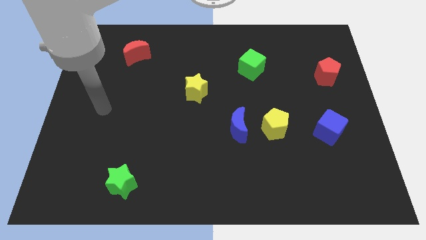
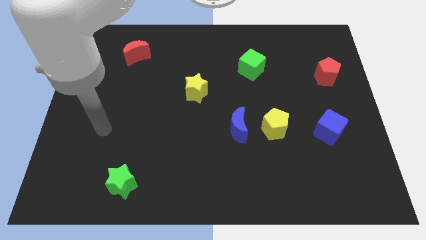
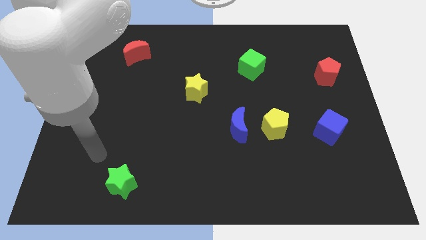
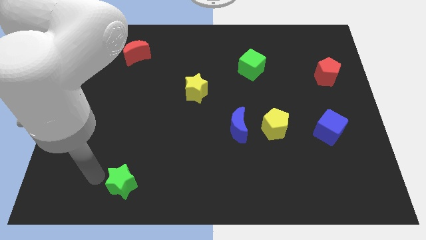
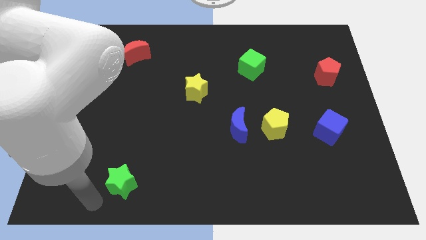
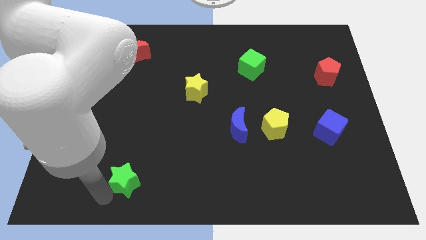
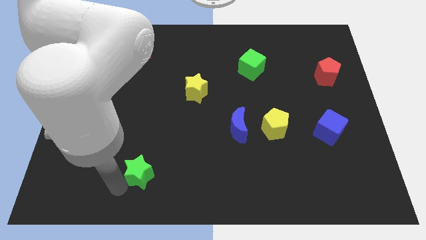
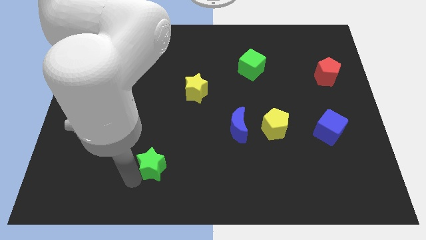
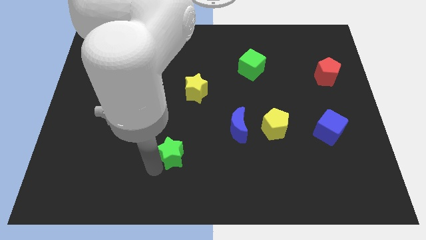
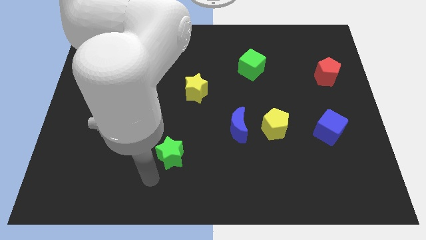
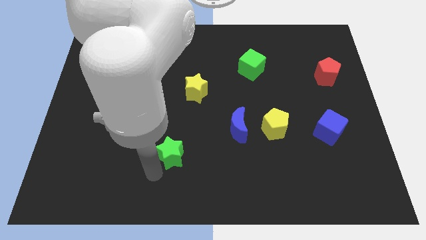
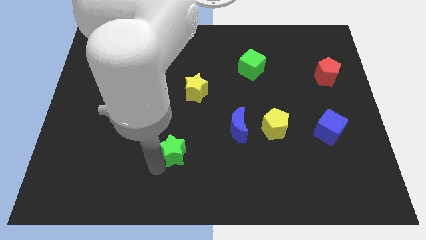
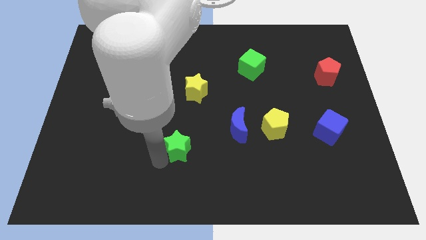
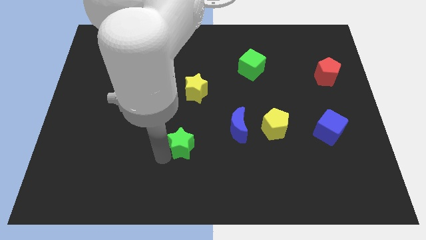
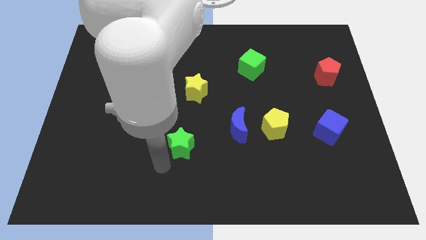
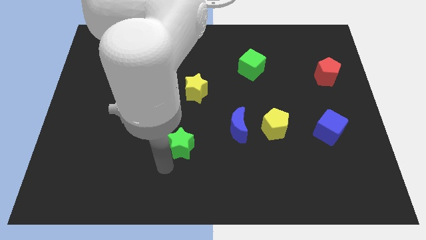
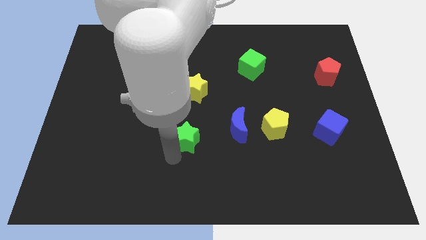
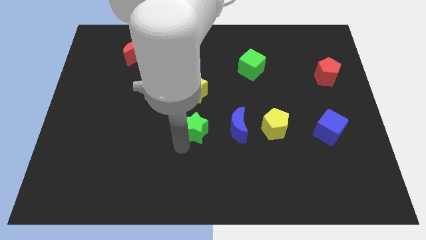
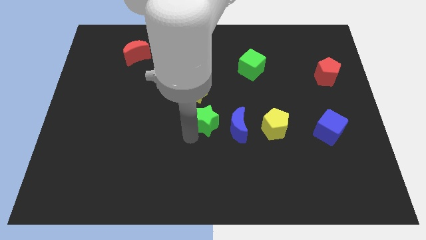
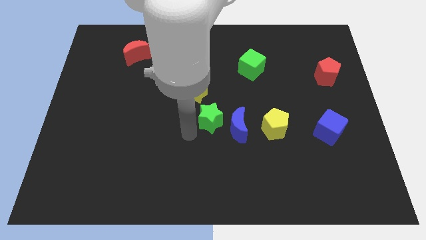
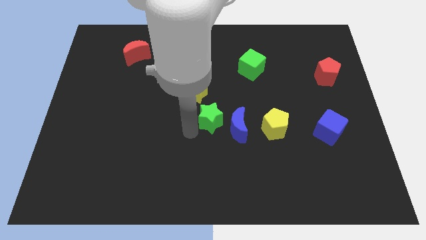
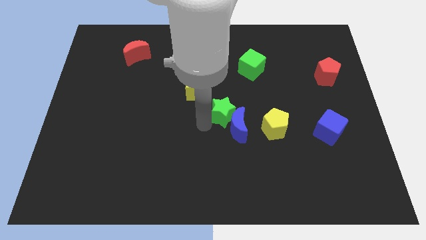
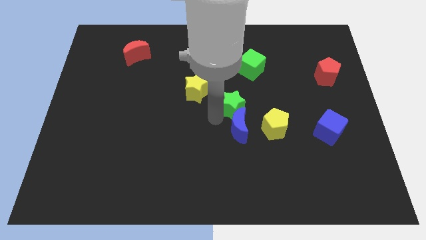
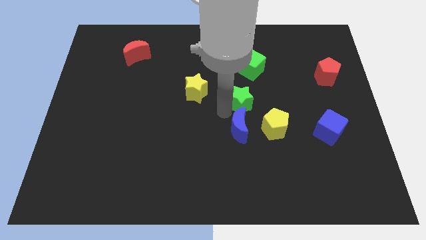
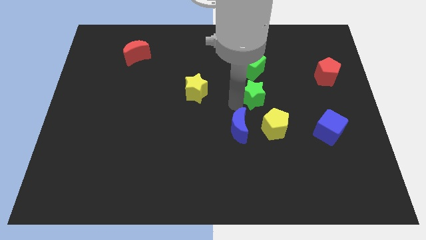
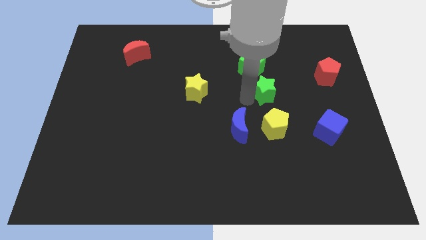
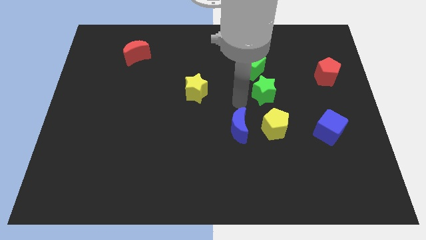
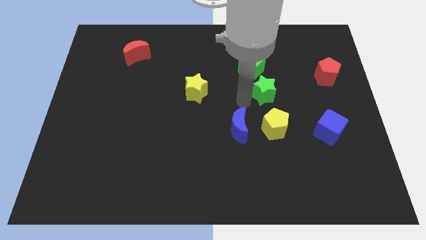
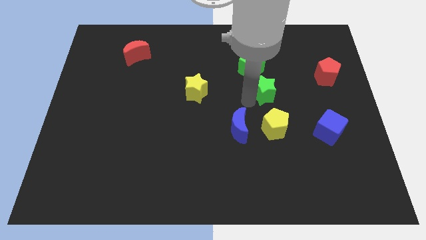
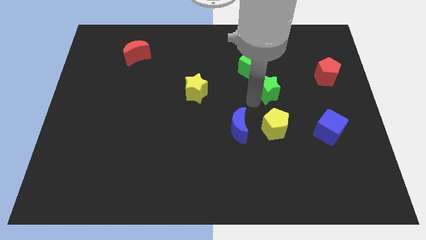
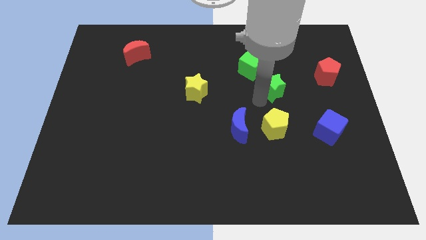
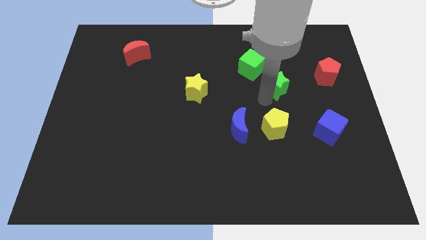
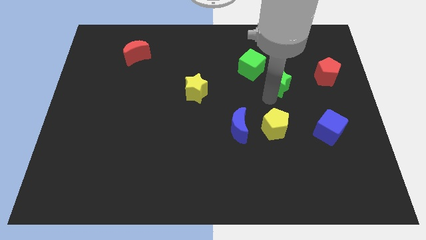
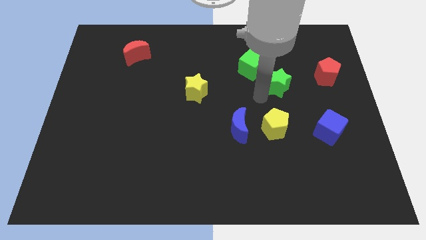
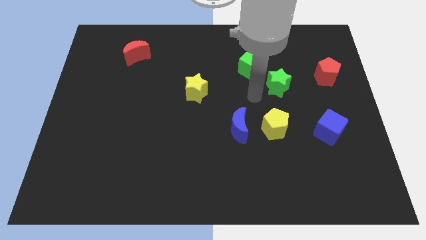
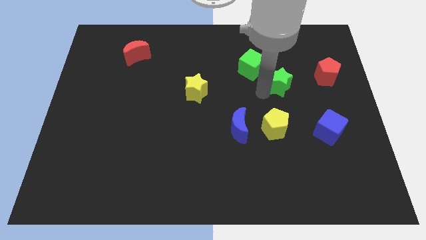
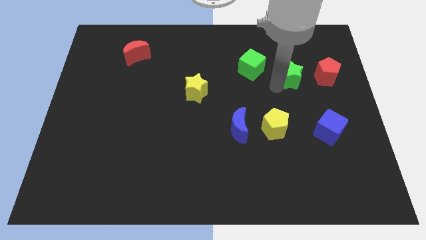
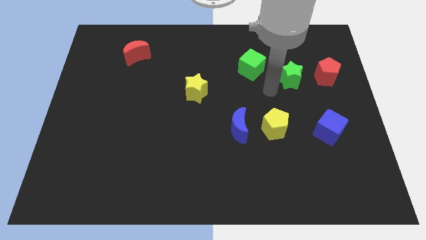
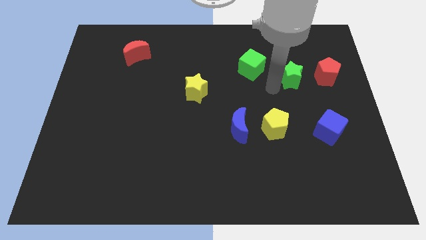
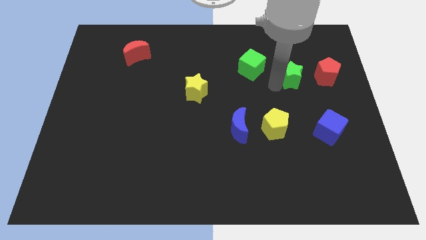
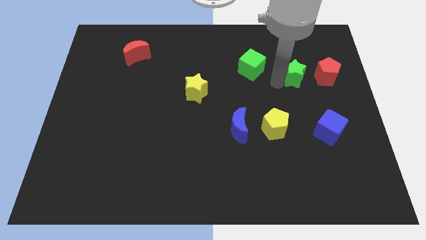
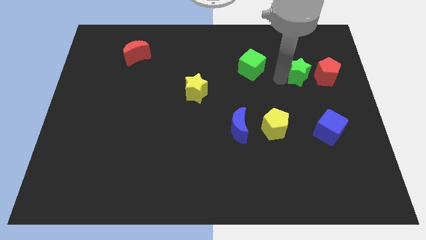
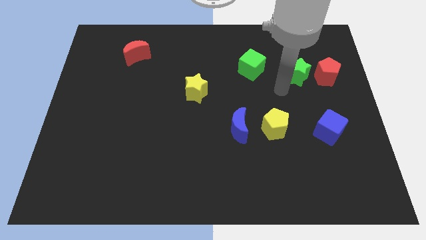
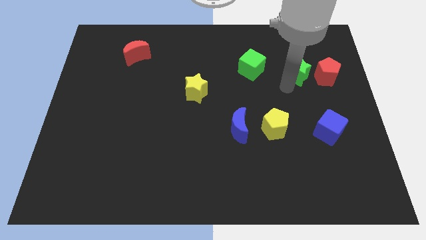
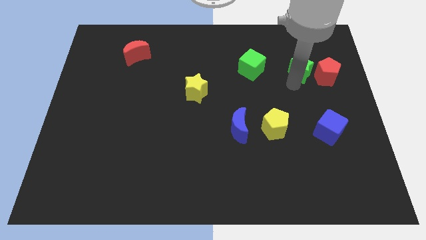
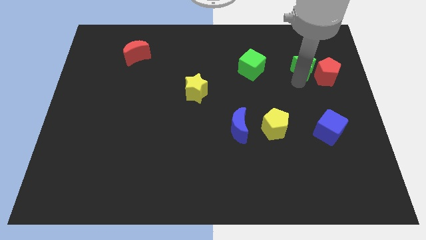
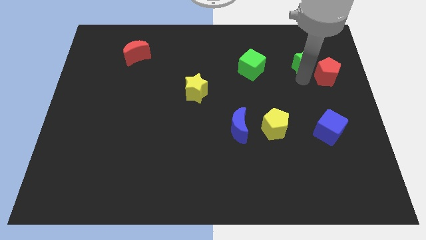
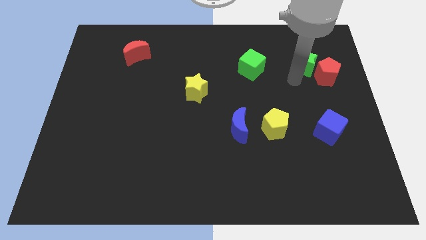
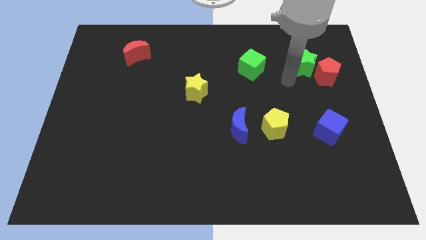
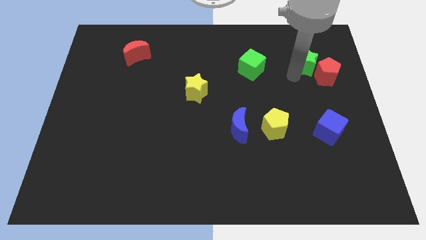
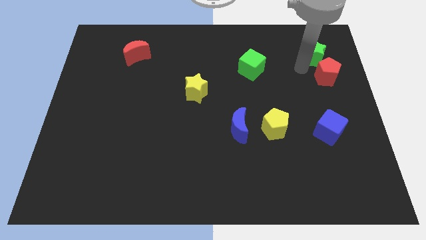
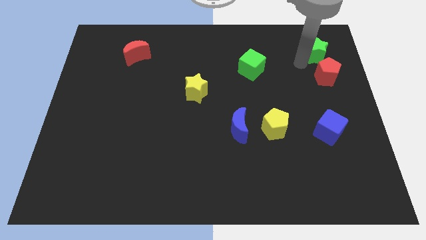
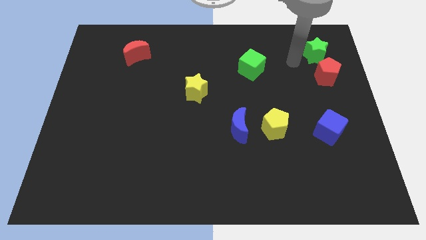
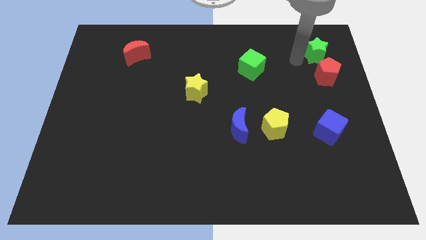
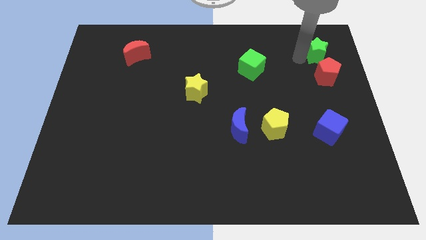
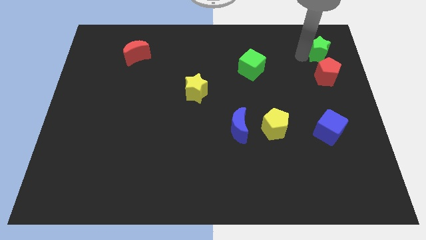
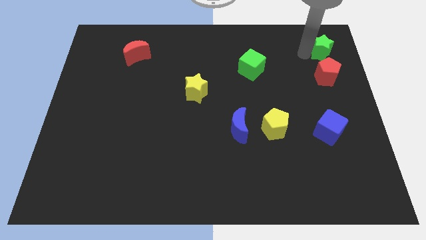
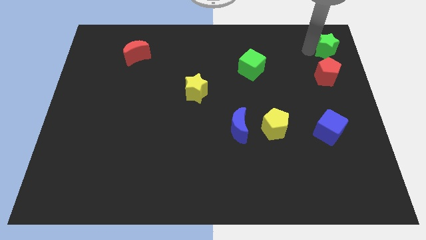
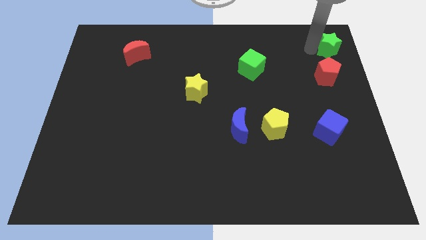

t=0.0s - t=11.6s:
move the green star to the top right of the board

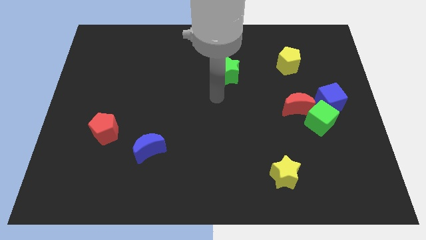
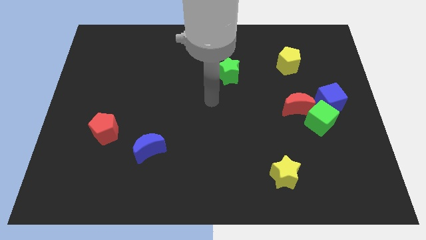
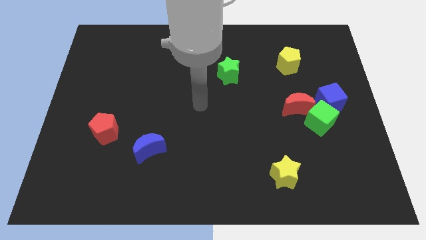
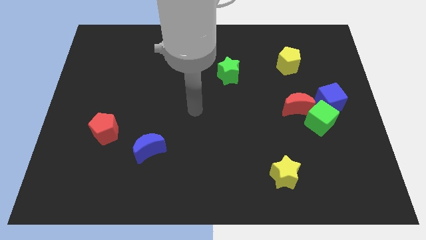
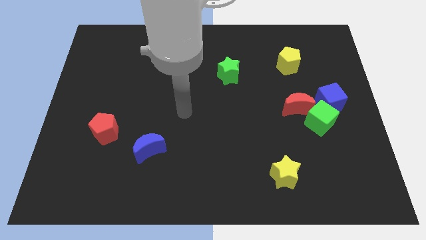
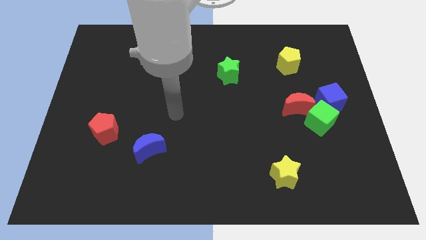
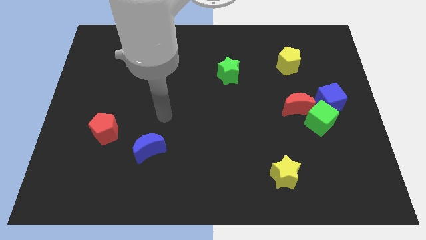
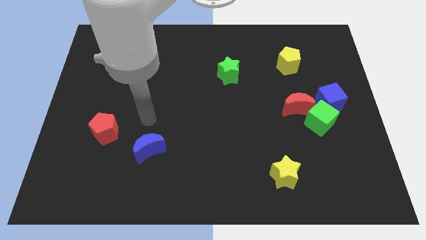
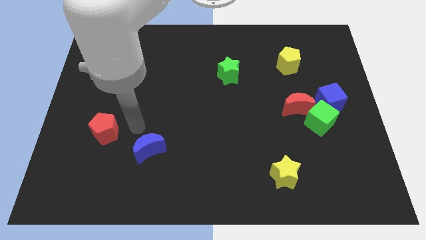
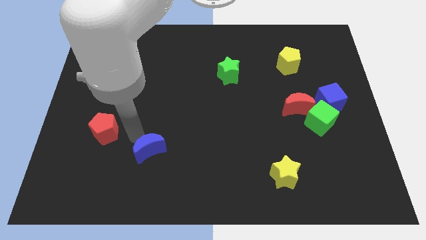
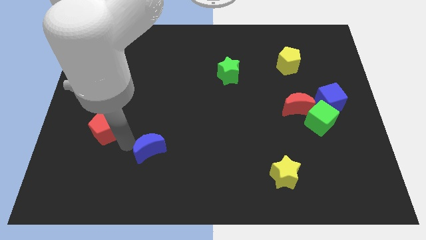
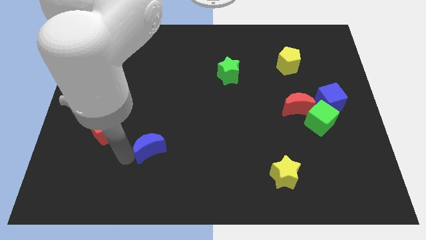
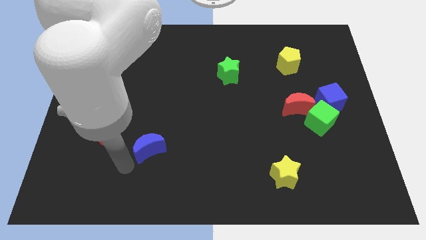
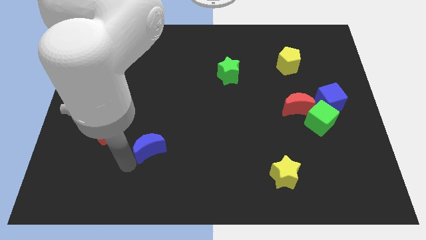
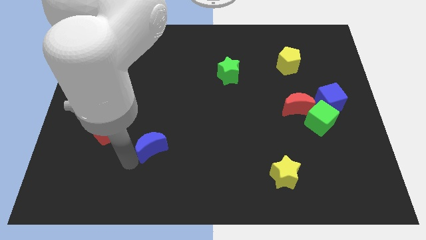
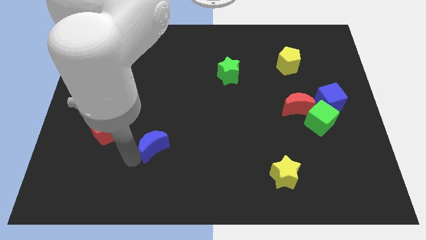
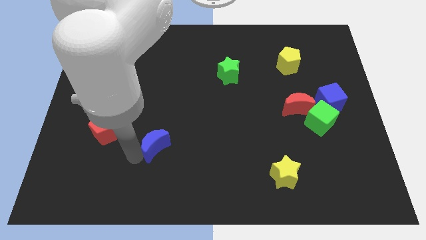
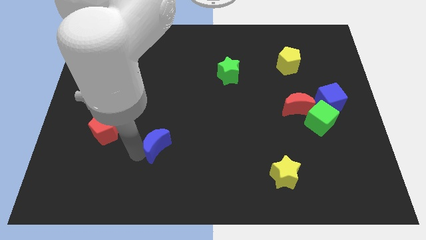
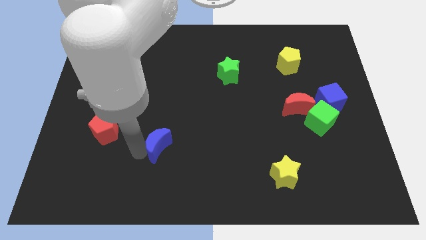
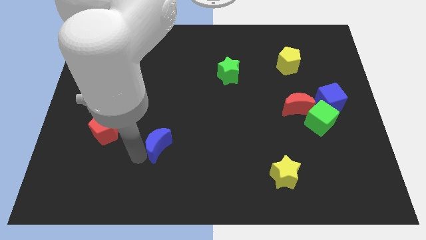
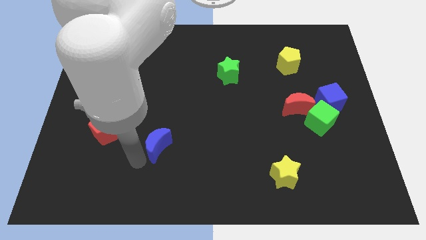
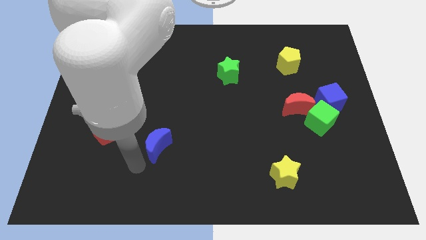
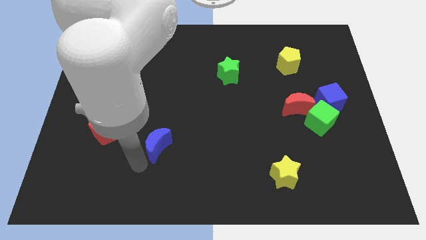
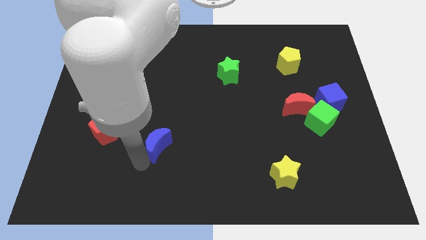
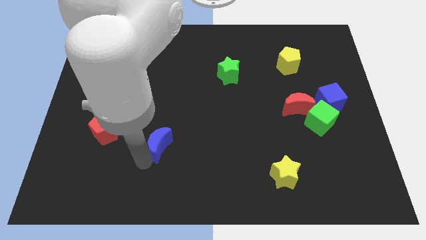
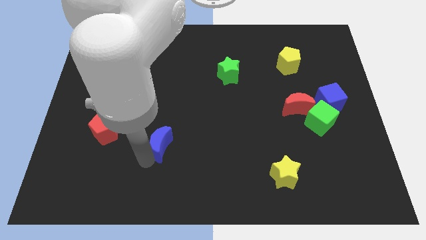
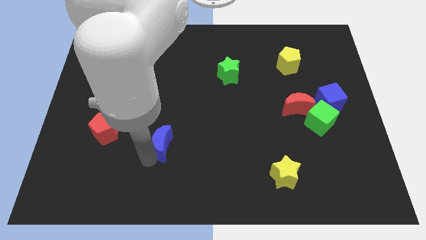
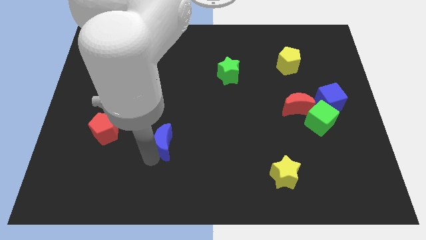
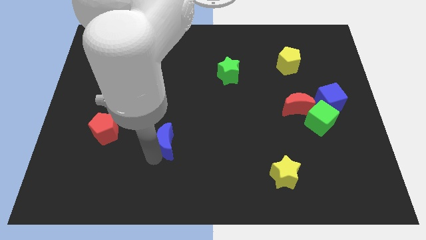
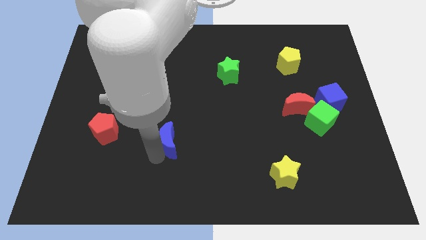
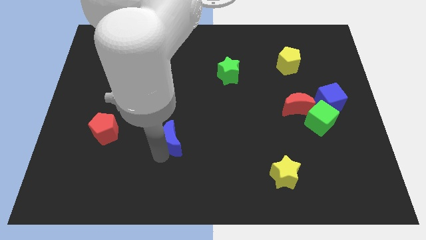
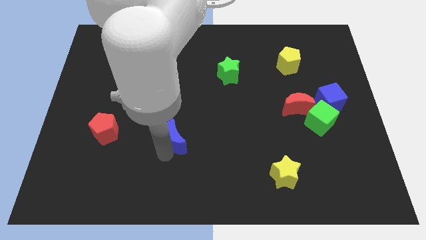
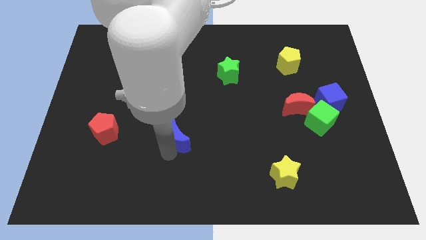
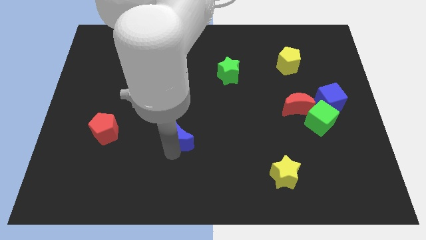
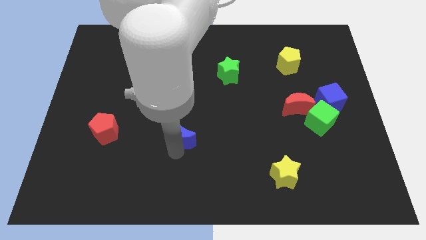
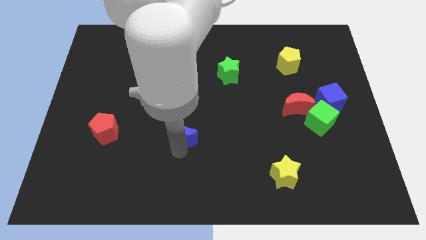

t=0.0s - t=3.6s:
slide the blue moon to the center of the board
